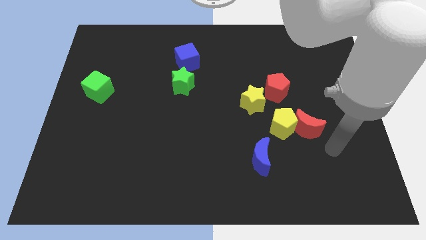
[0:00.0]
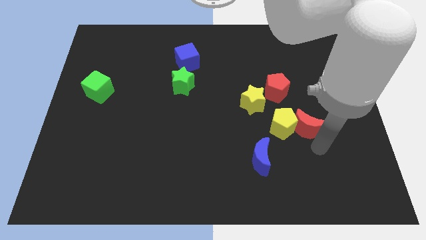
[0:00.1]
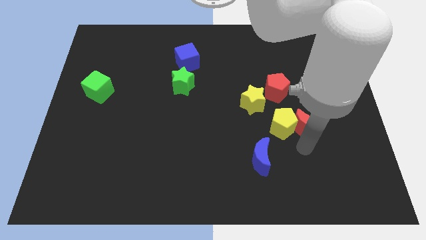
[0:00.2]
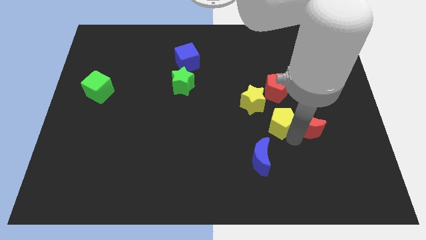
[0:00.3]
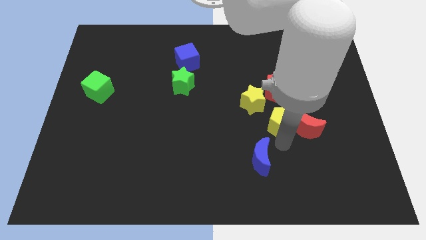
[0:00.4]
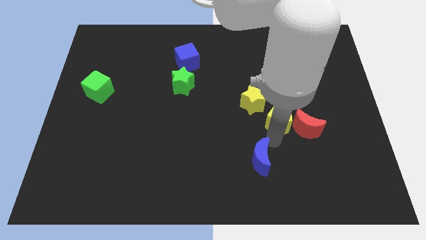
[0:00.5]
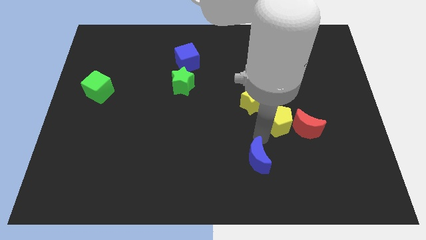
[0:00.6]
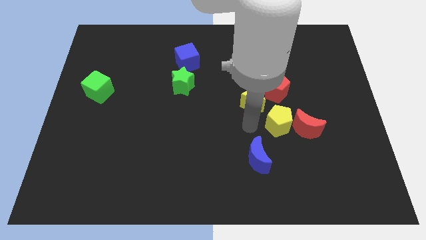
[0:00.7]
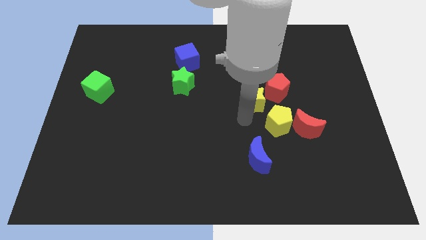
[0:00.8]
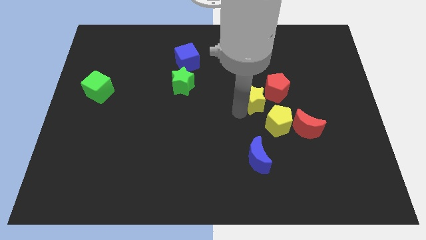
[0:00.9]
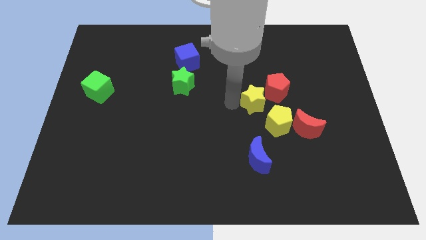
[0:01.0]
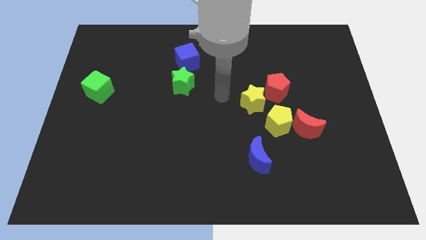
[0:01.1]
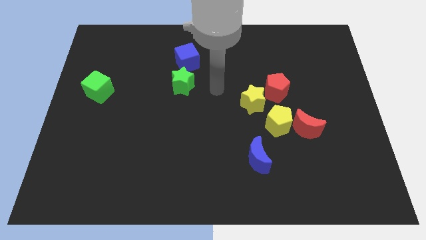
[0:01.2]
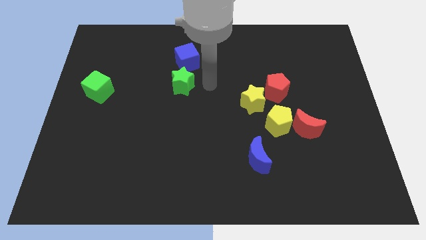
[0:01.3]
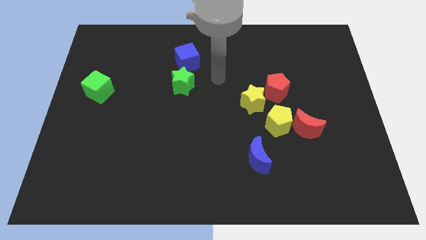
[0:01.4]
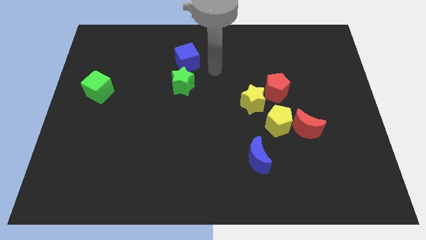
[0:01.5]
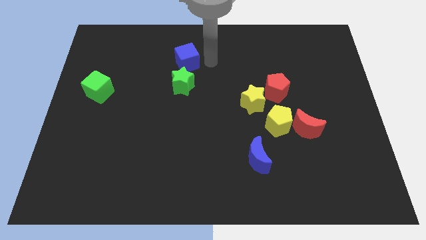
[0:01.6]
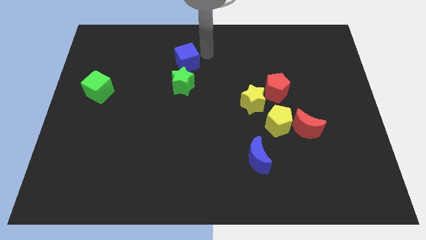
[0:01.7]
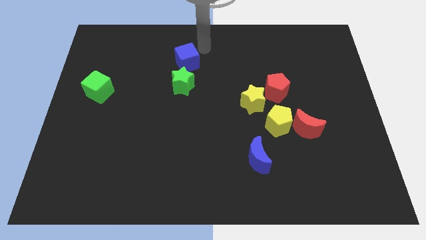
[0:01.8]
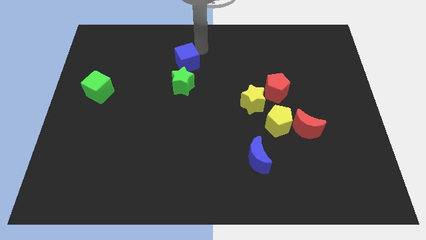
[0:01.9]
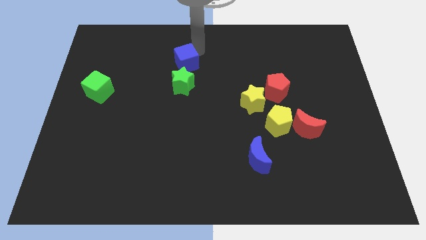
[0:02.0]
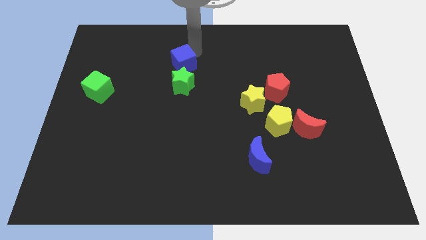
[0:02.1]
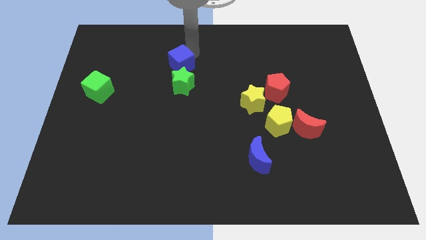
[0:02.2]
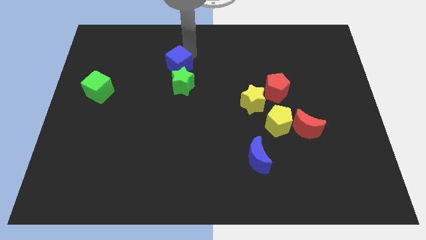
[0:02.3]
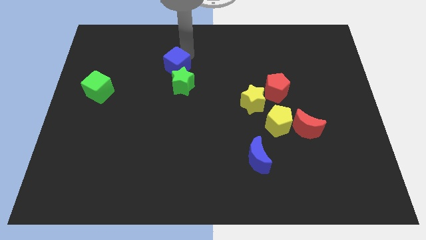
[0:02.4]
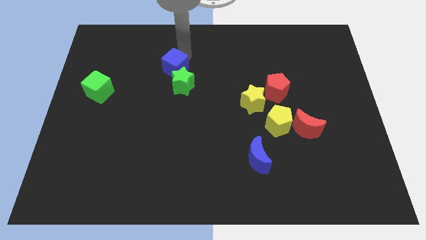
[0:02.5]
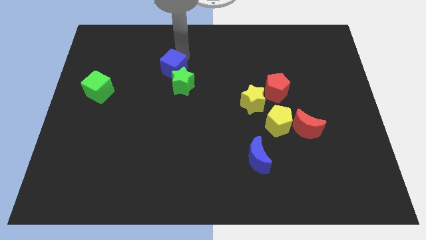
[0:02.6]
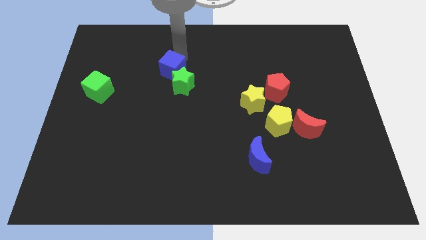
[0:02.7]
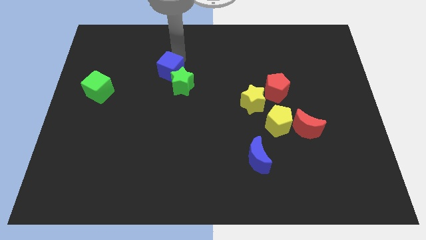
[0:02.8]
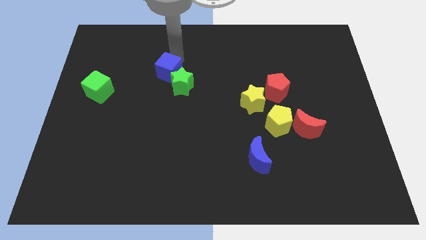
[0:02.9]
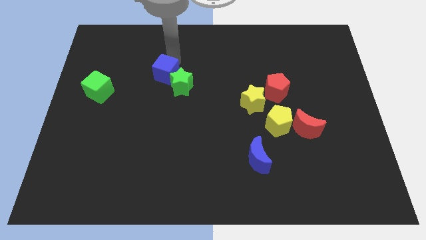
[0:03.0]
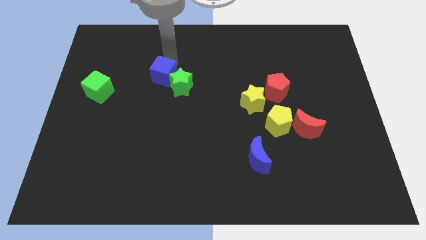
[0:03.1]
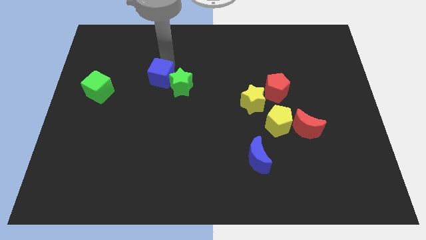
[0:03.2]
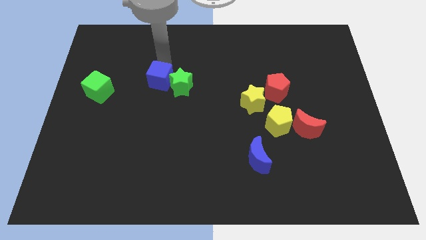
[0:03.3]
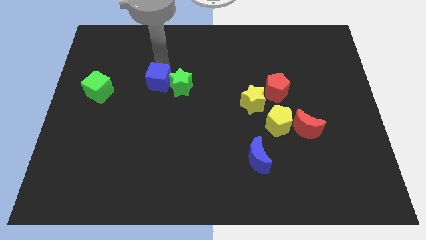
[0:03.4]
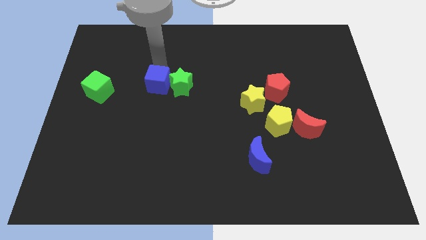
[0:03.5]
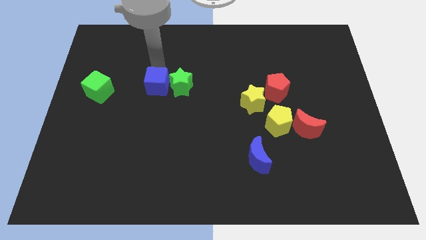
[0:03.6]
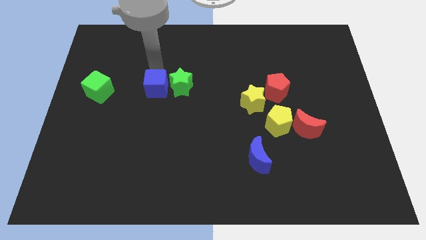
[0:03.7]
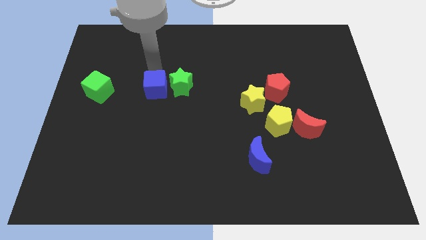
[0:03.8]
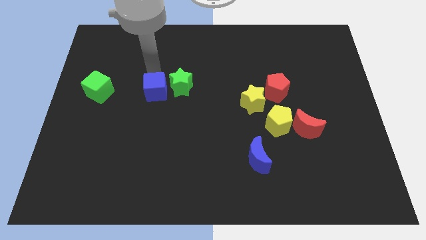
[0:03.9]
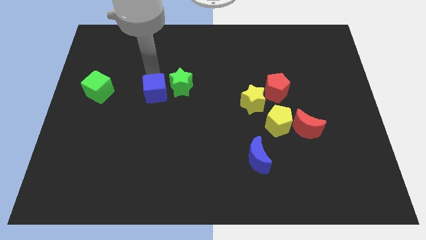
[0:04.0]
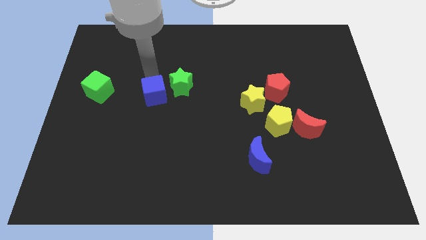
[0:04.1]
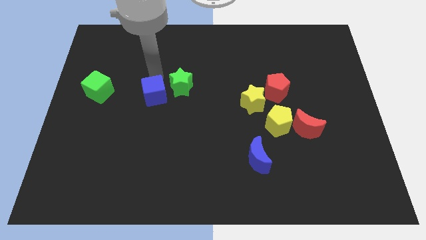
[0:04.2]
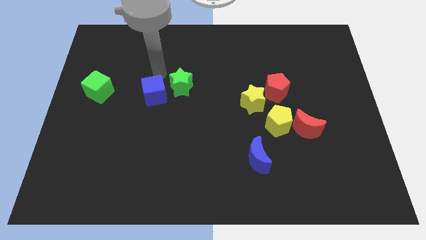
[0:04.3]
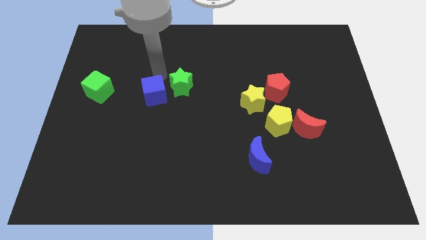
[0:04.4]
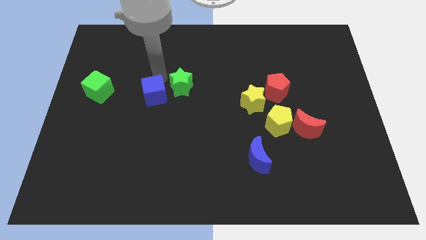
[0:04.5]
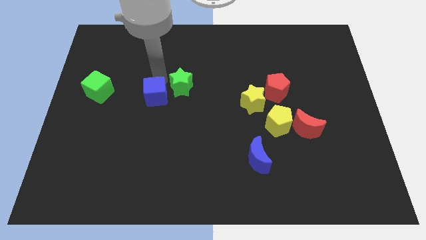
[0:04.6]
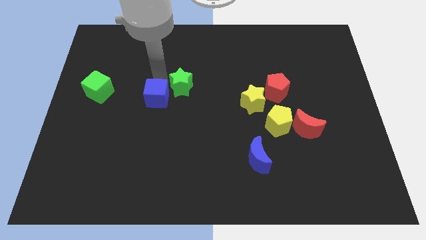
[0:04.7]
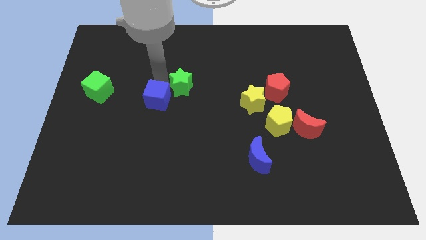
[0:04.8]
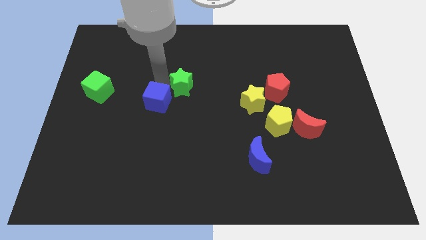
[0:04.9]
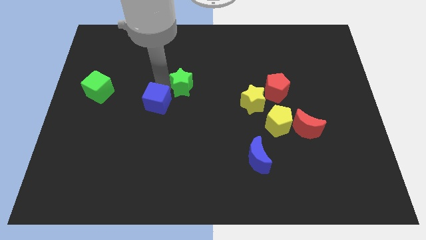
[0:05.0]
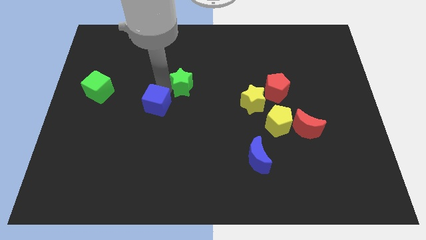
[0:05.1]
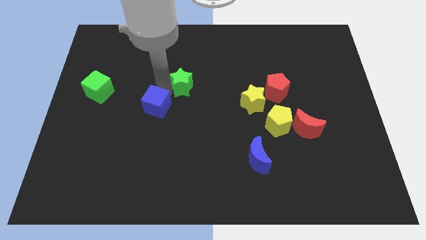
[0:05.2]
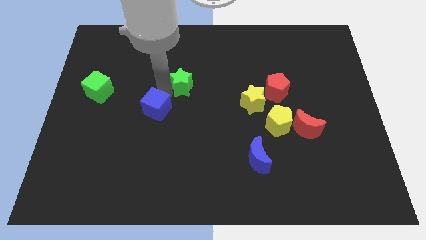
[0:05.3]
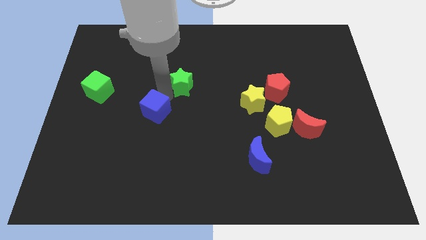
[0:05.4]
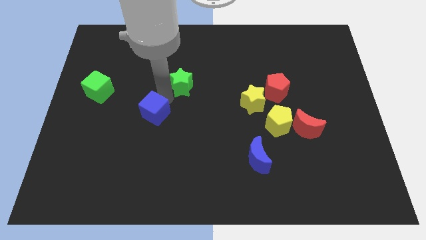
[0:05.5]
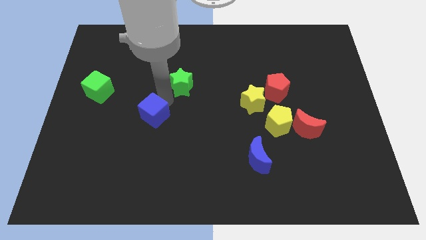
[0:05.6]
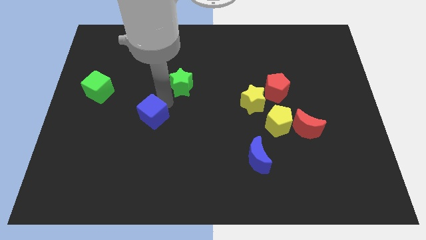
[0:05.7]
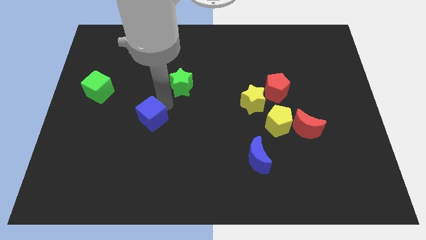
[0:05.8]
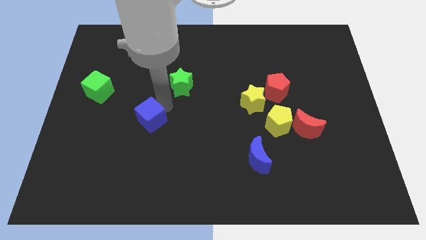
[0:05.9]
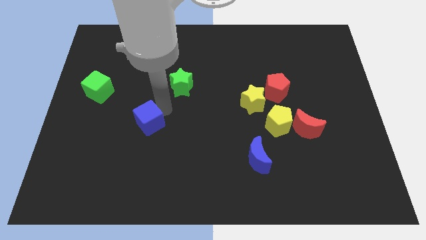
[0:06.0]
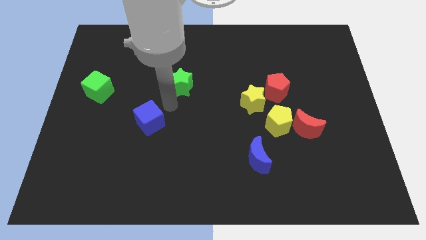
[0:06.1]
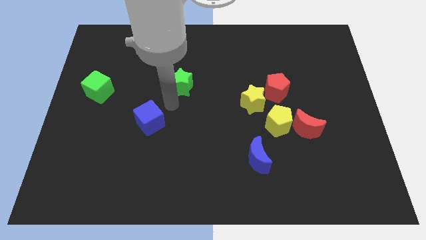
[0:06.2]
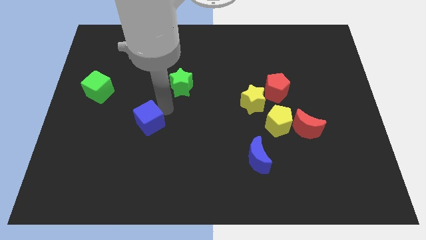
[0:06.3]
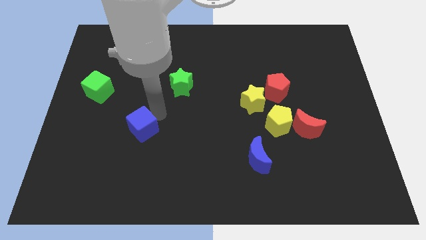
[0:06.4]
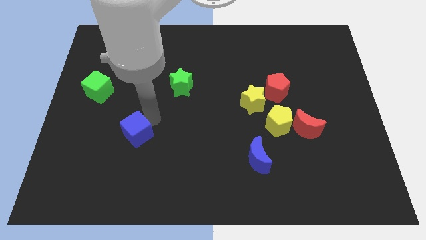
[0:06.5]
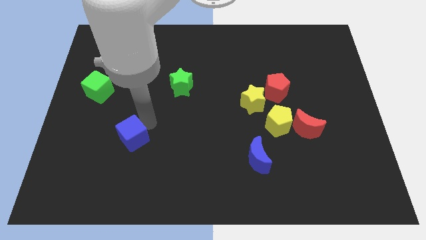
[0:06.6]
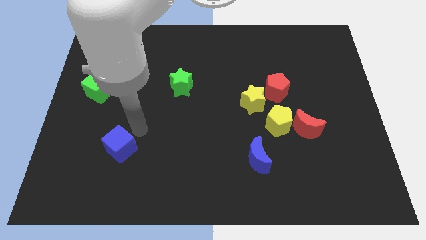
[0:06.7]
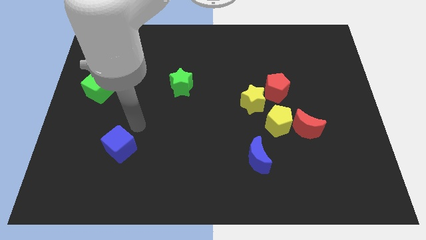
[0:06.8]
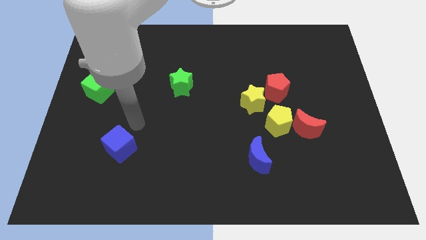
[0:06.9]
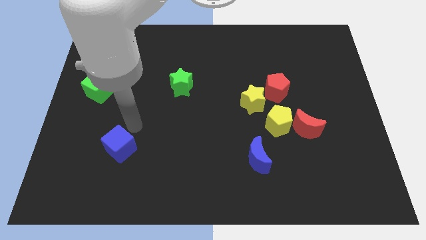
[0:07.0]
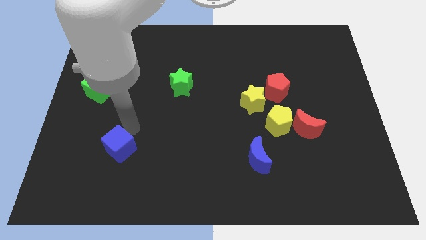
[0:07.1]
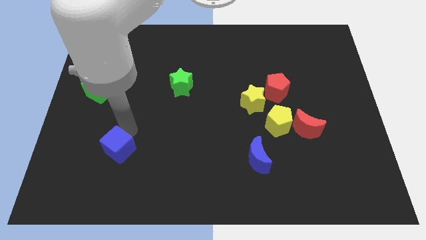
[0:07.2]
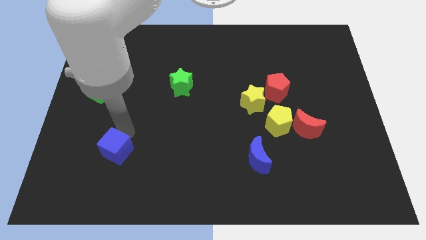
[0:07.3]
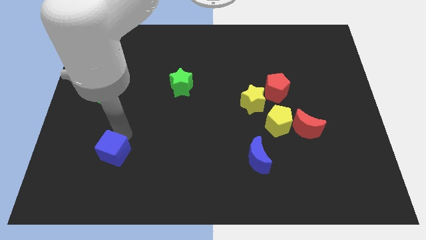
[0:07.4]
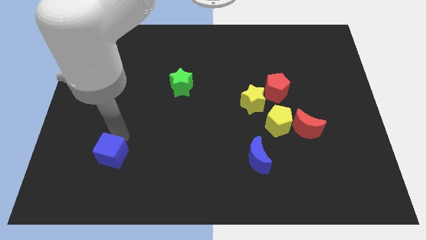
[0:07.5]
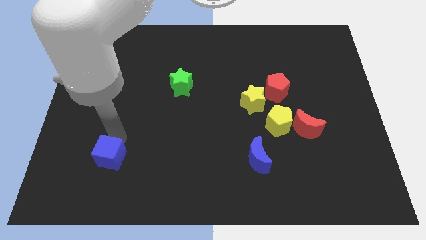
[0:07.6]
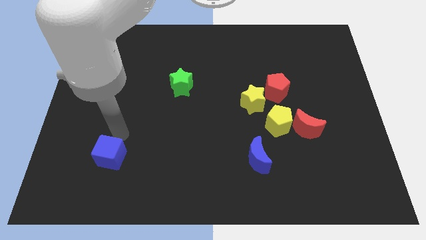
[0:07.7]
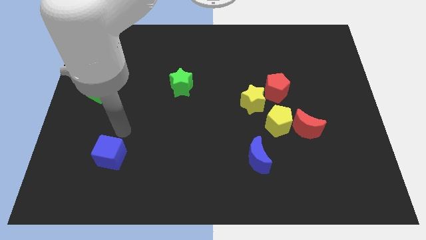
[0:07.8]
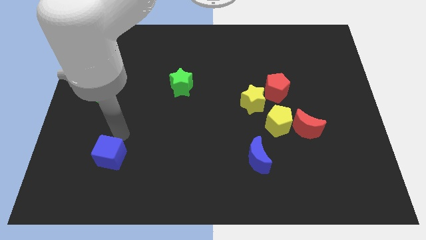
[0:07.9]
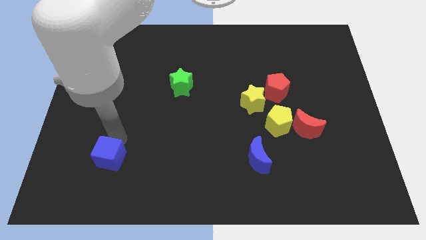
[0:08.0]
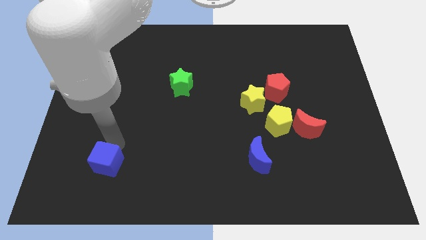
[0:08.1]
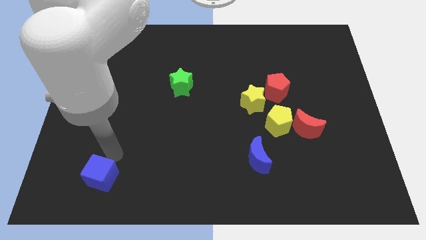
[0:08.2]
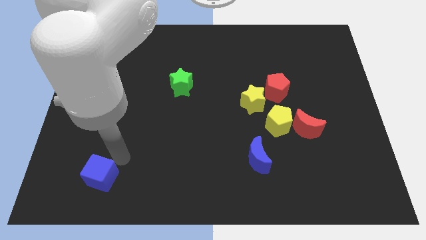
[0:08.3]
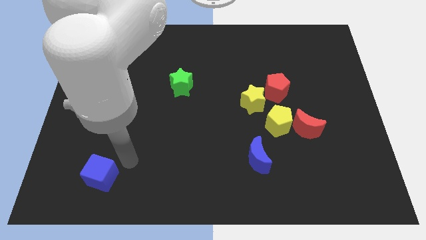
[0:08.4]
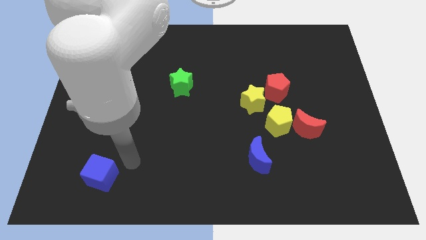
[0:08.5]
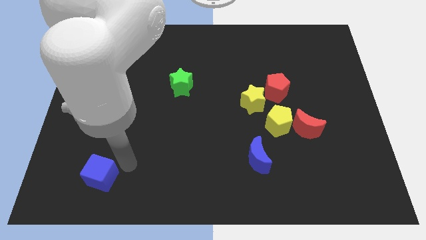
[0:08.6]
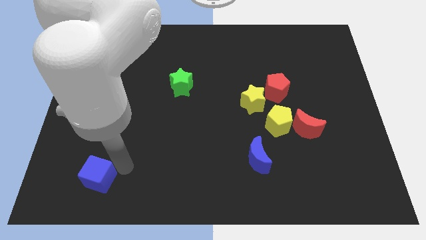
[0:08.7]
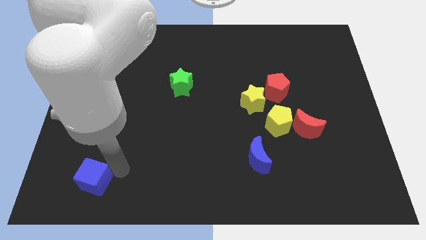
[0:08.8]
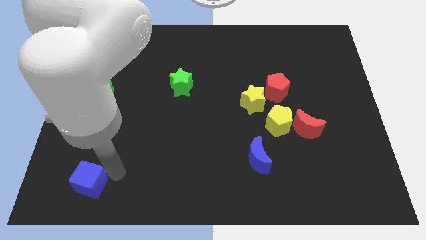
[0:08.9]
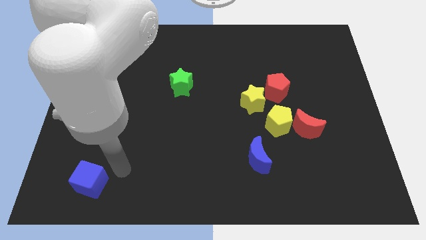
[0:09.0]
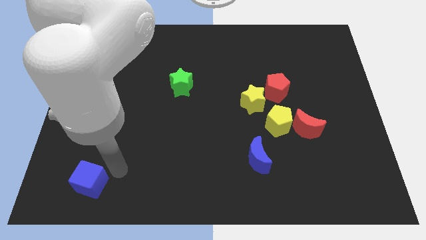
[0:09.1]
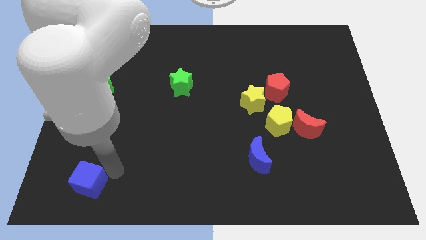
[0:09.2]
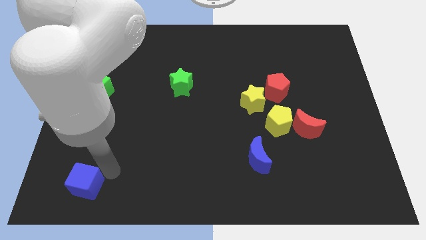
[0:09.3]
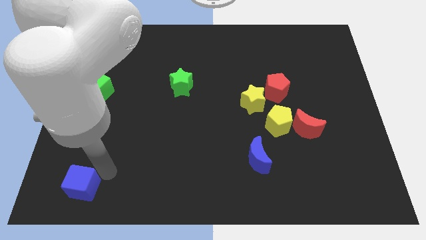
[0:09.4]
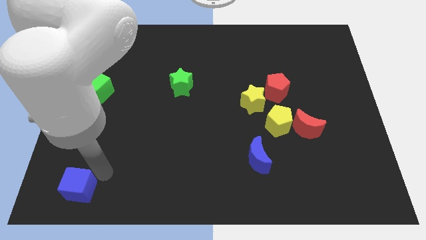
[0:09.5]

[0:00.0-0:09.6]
push the blue cube to the lower left corner
